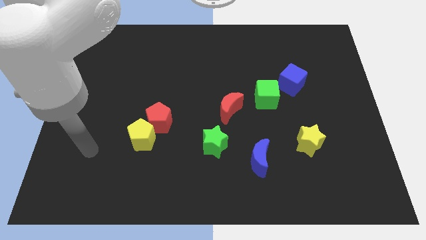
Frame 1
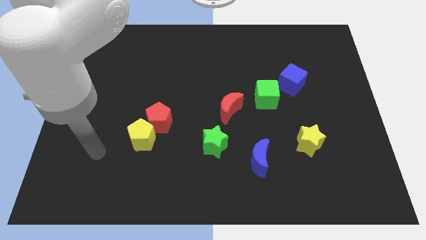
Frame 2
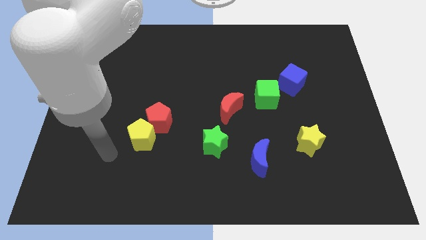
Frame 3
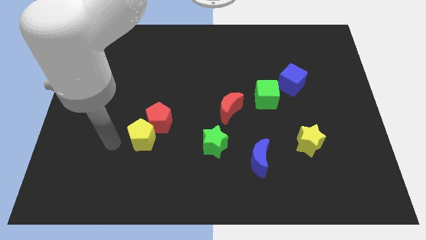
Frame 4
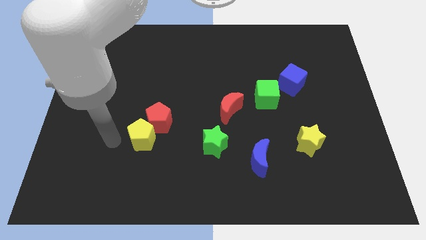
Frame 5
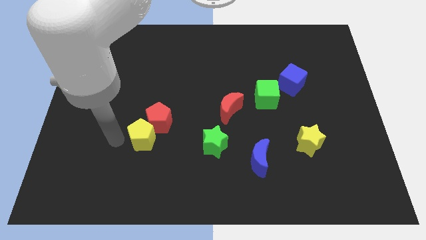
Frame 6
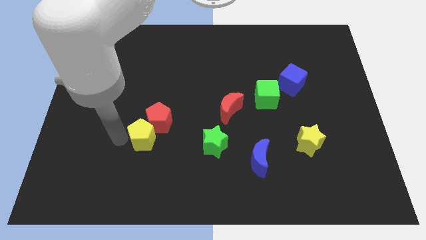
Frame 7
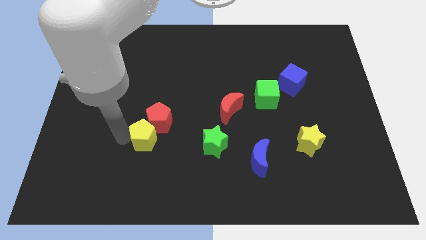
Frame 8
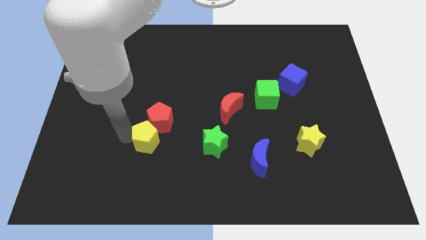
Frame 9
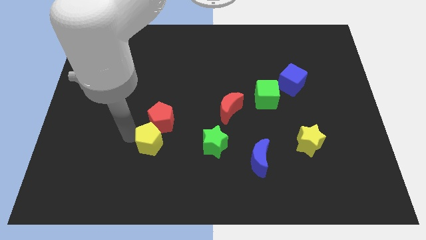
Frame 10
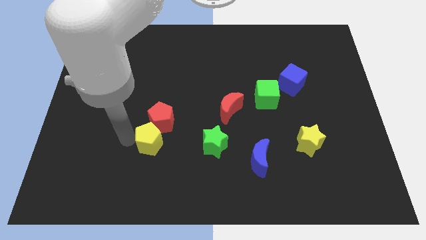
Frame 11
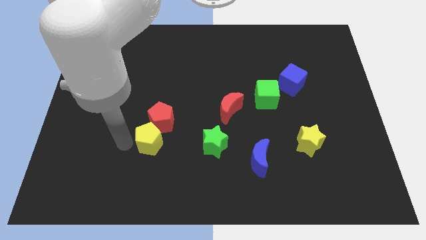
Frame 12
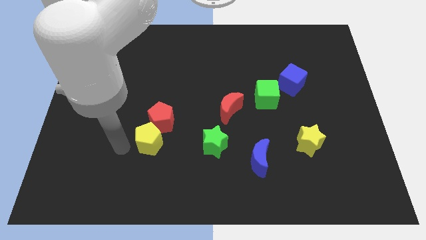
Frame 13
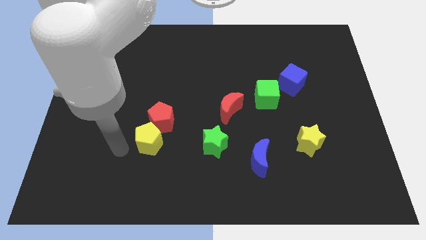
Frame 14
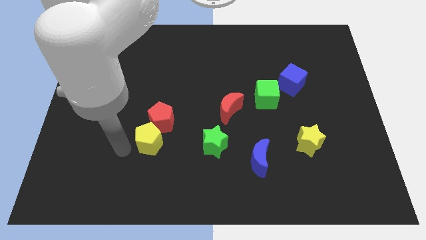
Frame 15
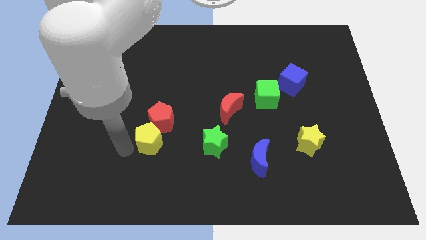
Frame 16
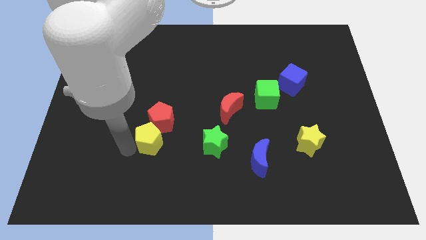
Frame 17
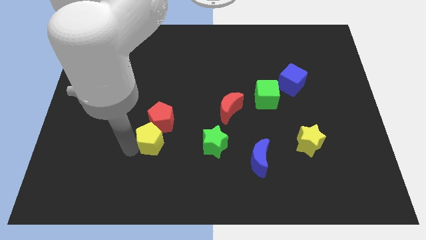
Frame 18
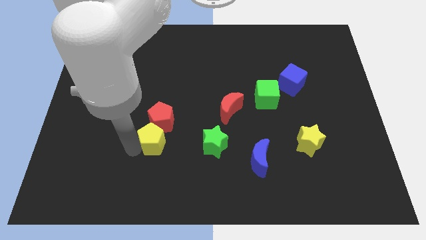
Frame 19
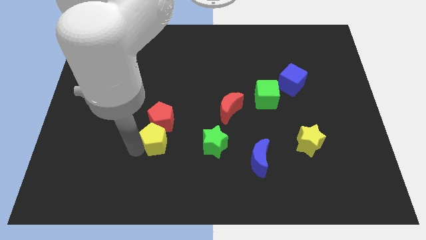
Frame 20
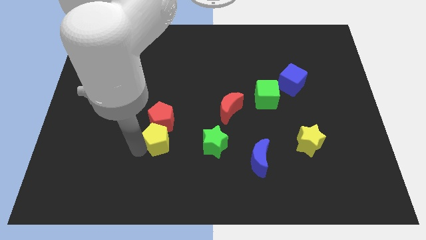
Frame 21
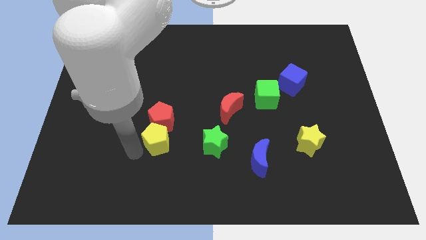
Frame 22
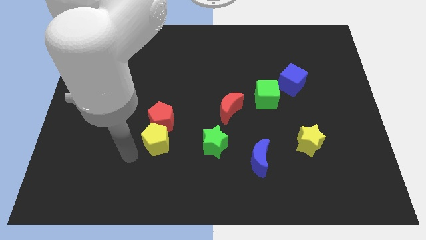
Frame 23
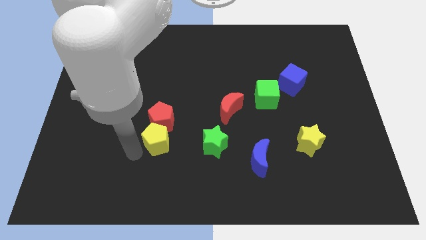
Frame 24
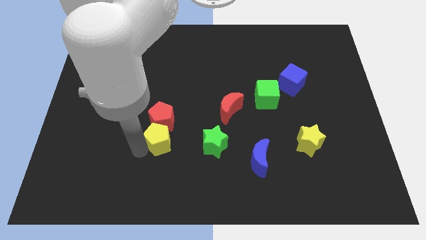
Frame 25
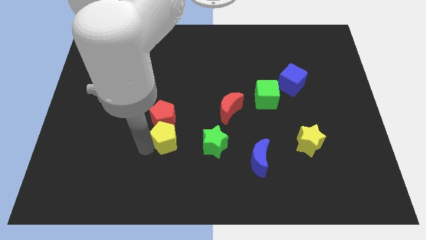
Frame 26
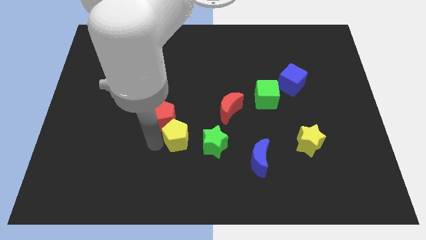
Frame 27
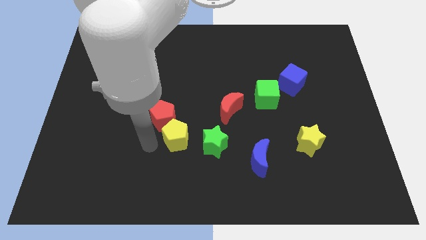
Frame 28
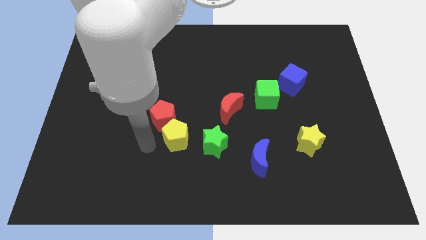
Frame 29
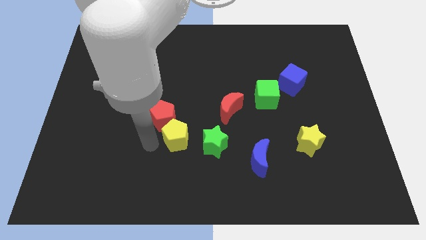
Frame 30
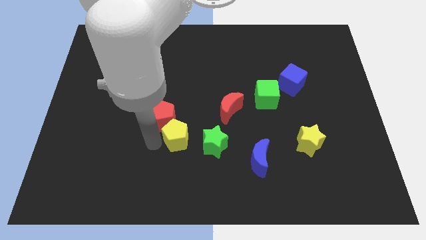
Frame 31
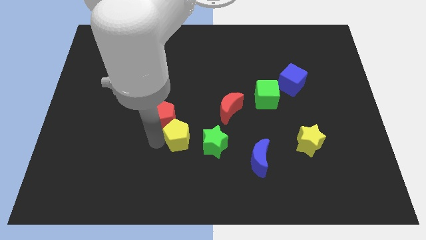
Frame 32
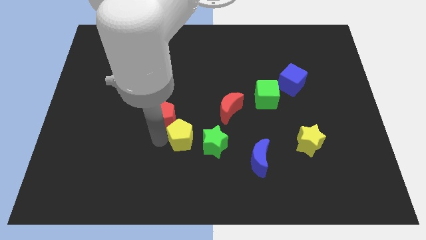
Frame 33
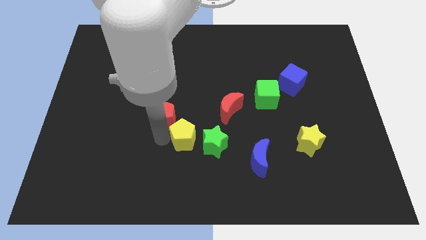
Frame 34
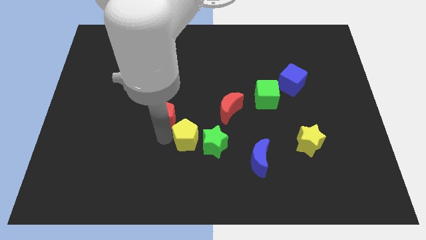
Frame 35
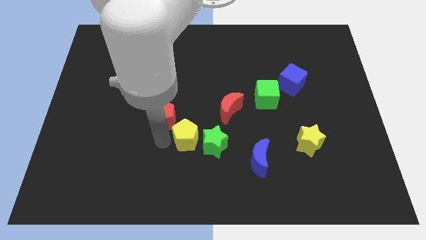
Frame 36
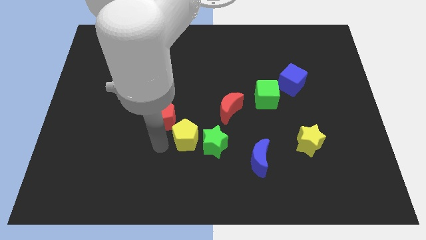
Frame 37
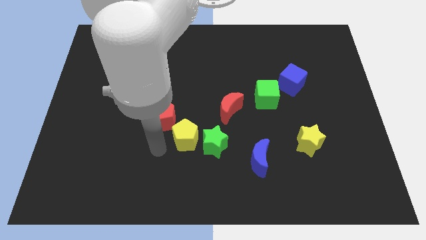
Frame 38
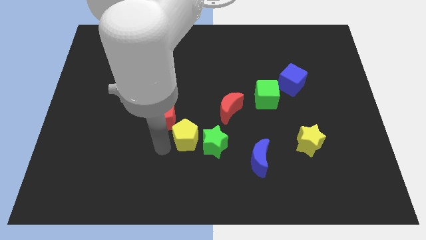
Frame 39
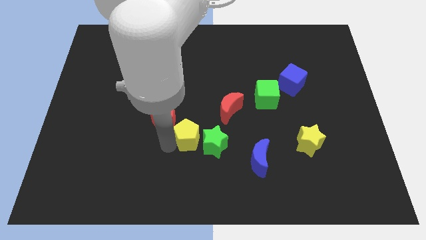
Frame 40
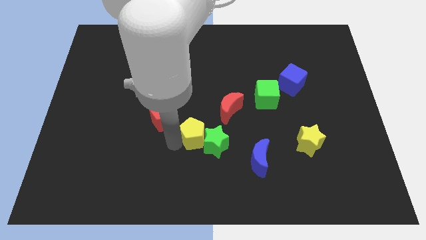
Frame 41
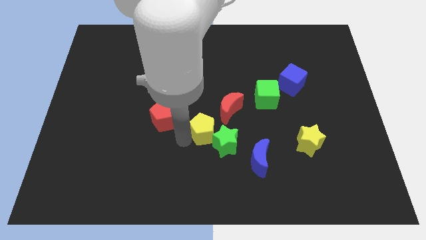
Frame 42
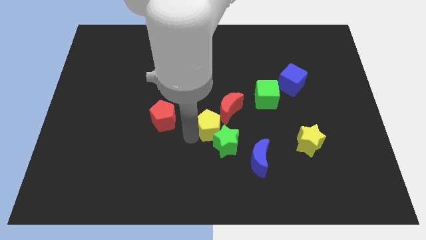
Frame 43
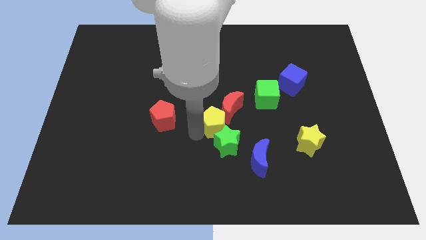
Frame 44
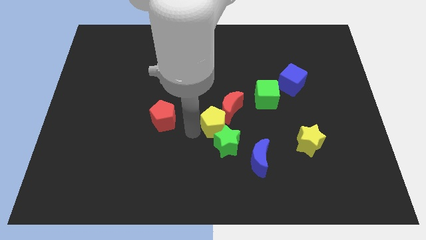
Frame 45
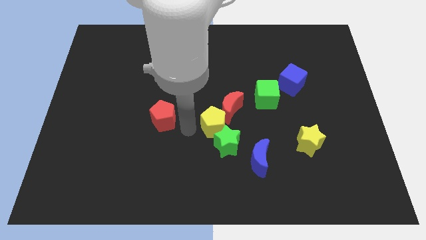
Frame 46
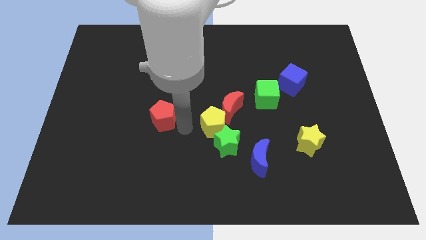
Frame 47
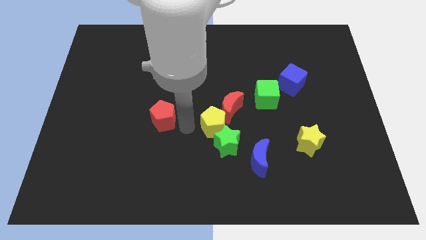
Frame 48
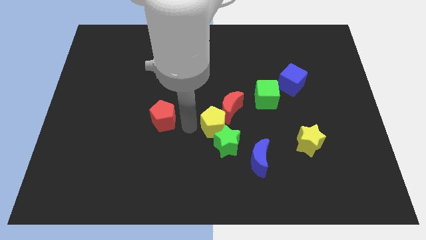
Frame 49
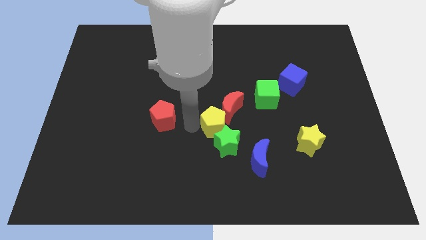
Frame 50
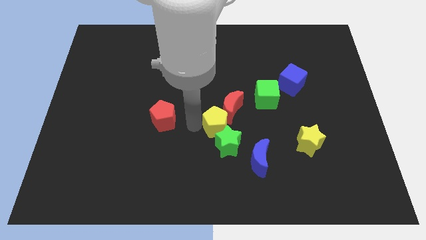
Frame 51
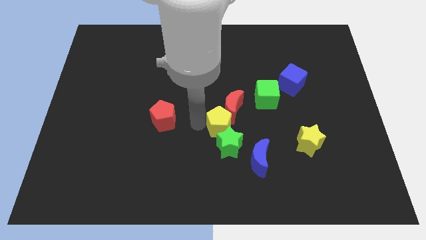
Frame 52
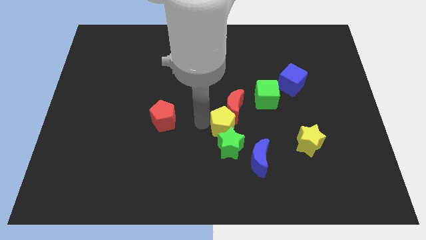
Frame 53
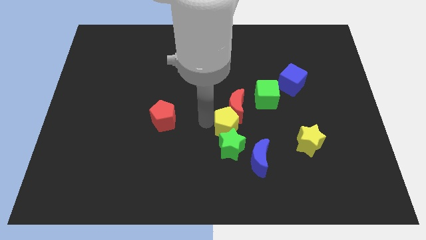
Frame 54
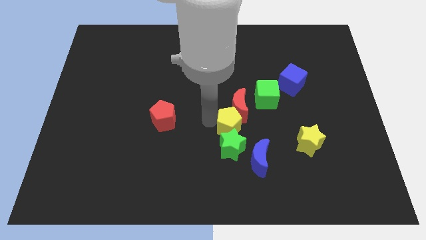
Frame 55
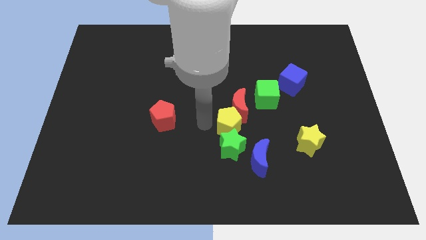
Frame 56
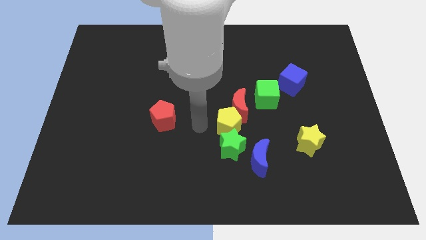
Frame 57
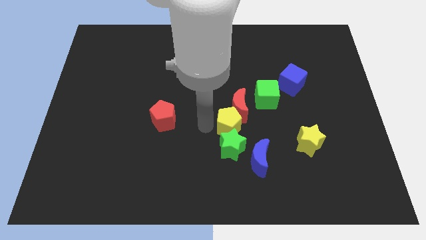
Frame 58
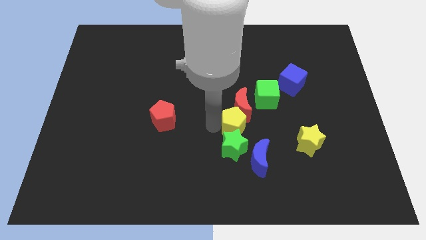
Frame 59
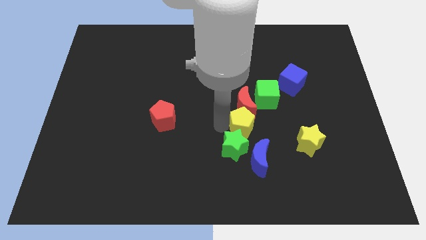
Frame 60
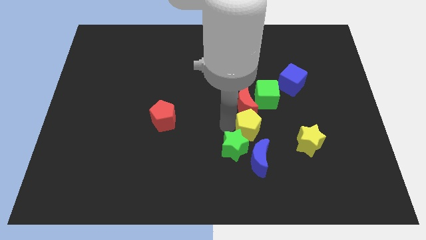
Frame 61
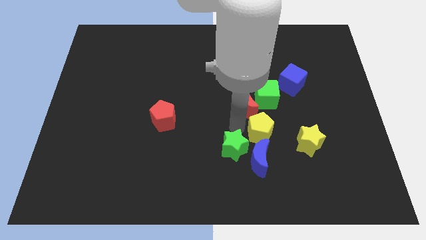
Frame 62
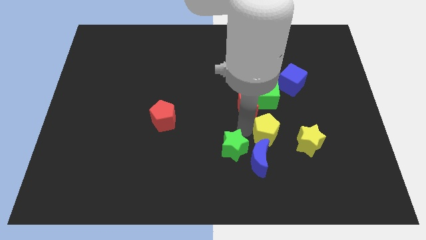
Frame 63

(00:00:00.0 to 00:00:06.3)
slide the yellow pentagon to the top left of the yellow star

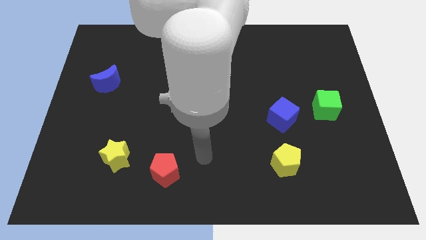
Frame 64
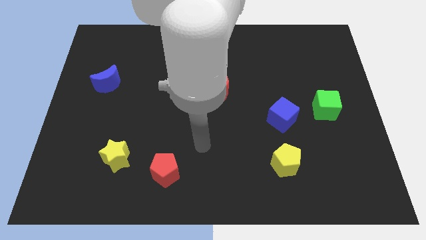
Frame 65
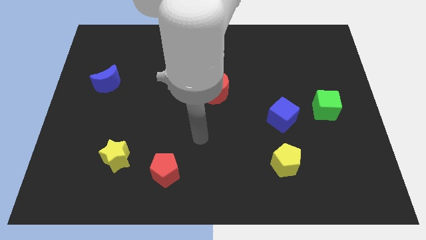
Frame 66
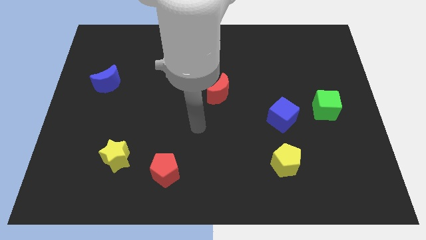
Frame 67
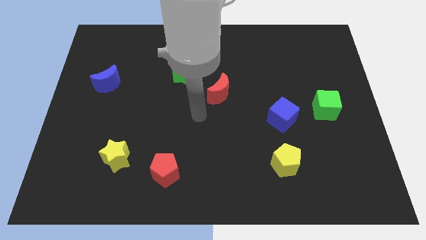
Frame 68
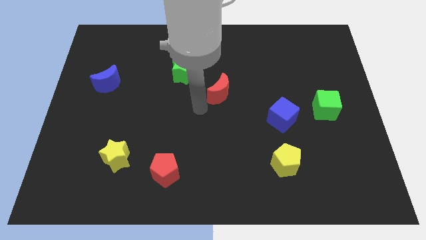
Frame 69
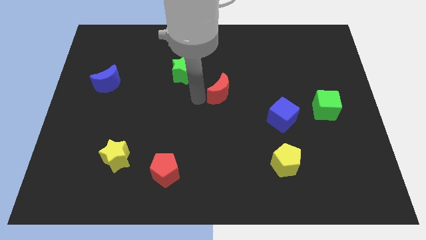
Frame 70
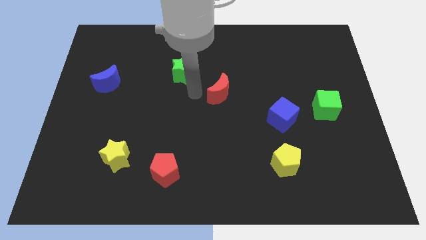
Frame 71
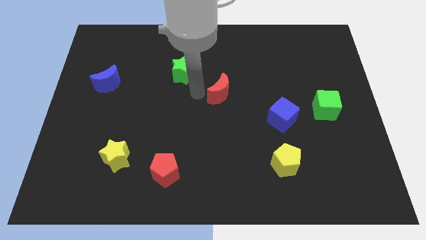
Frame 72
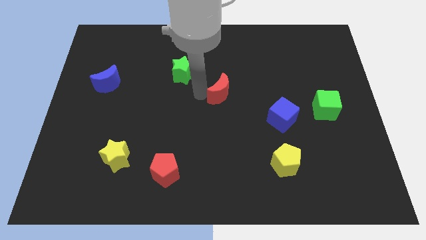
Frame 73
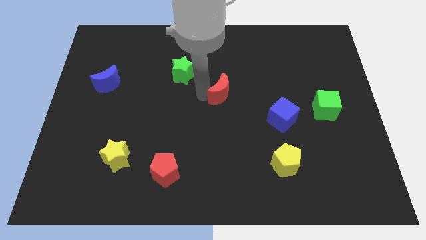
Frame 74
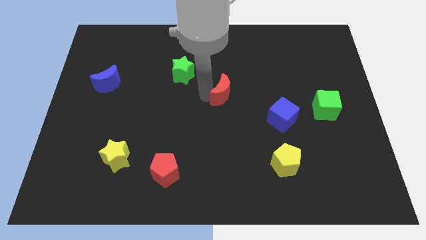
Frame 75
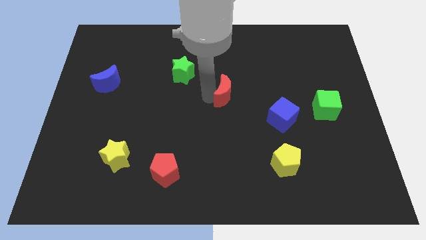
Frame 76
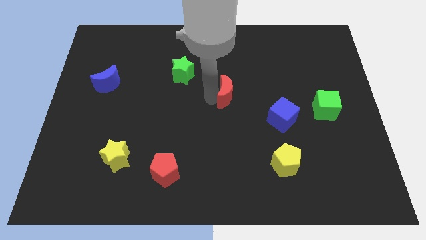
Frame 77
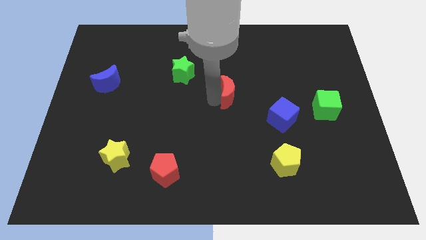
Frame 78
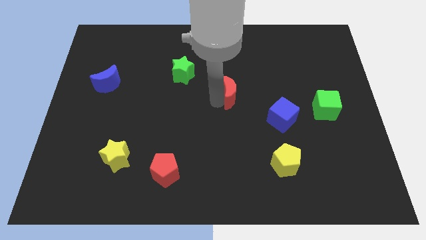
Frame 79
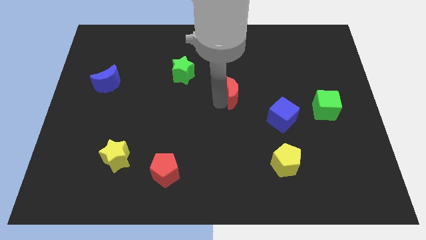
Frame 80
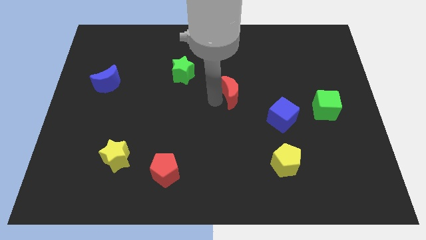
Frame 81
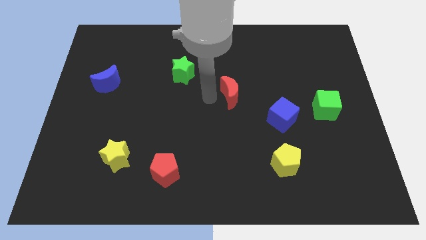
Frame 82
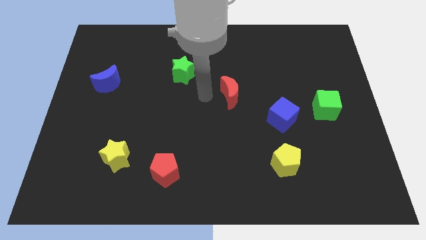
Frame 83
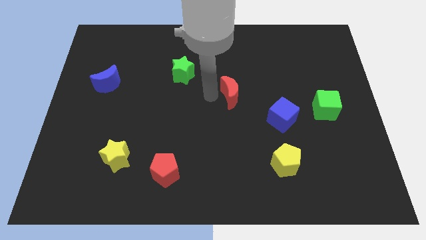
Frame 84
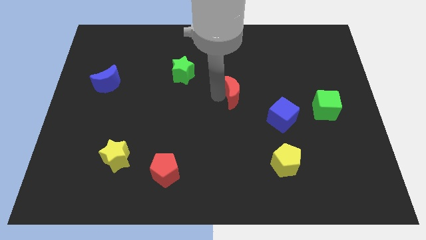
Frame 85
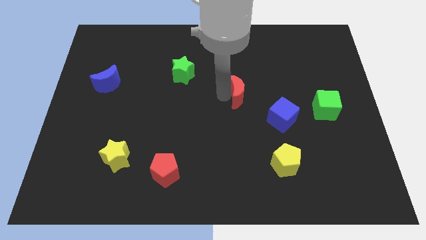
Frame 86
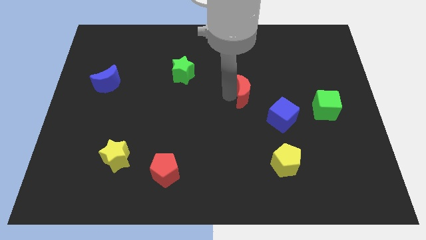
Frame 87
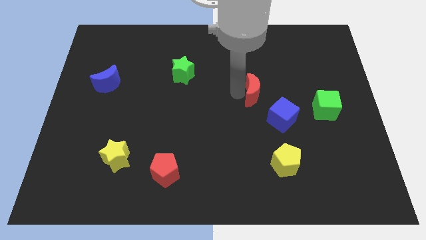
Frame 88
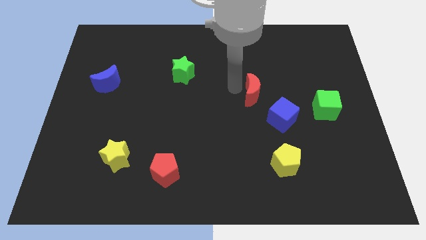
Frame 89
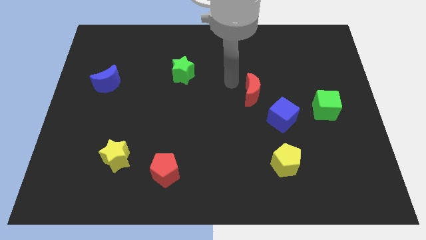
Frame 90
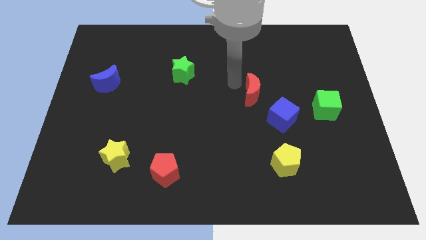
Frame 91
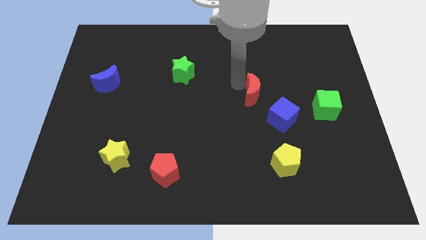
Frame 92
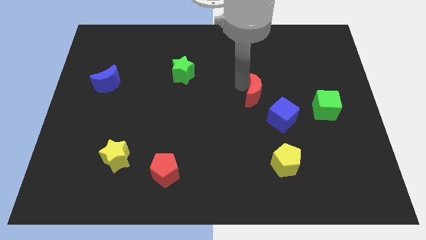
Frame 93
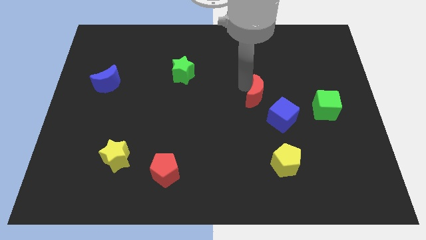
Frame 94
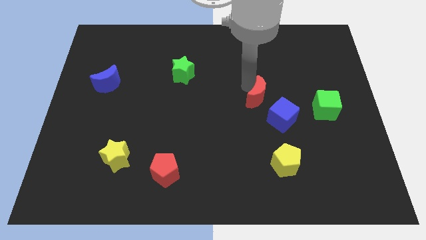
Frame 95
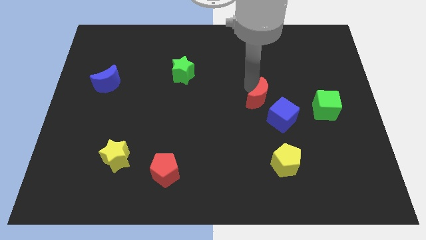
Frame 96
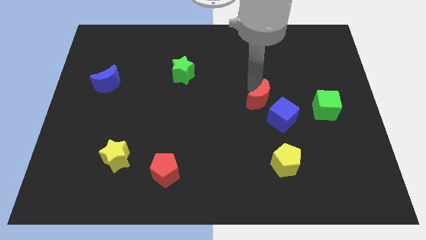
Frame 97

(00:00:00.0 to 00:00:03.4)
slide the red moon to the left side of the green cube
